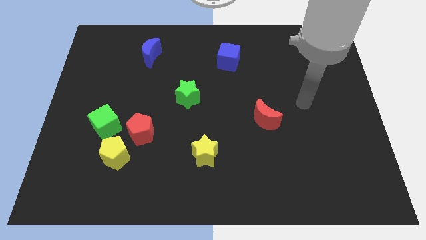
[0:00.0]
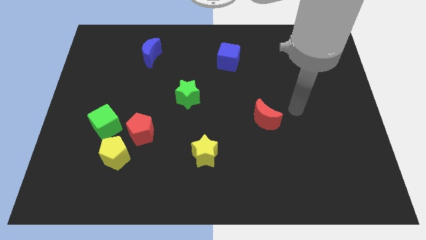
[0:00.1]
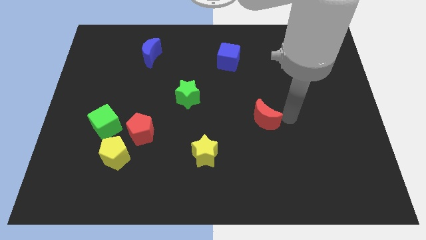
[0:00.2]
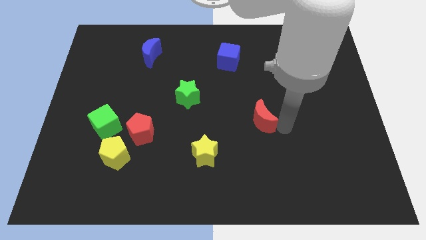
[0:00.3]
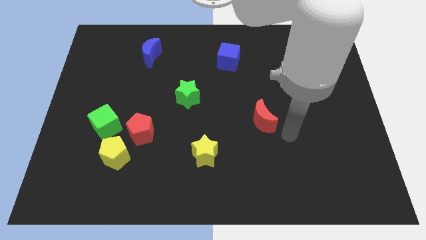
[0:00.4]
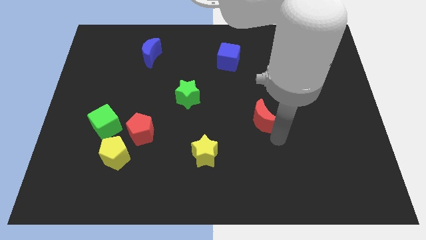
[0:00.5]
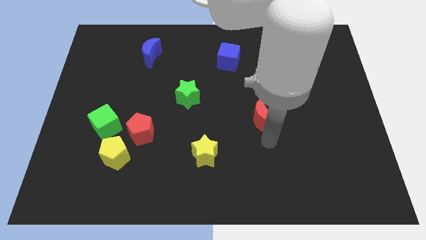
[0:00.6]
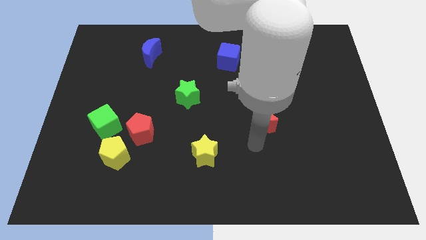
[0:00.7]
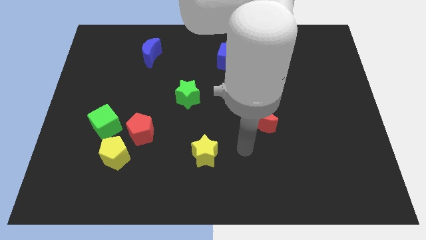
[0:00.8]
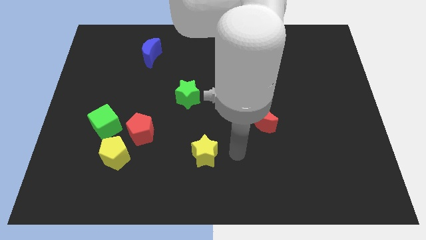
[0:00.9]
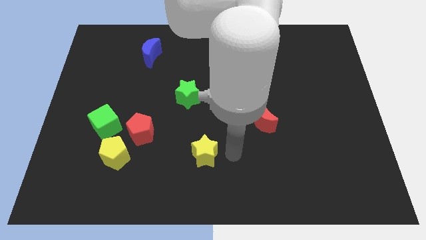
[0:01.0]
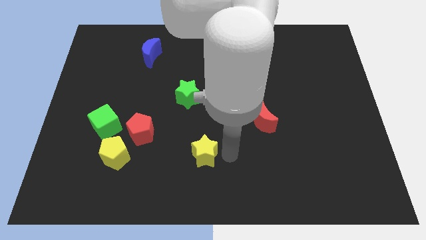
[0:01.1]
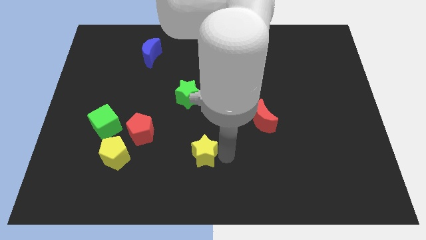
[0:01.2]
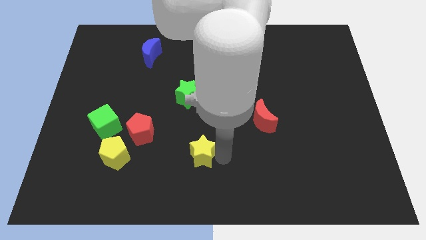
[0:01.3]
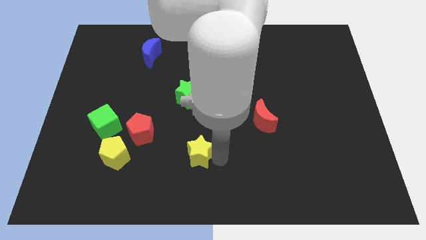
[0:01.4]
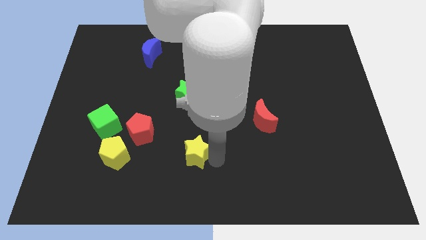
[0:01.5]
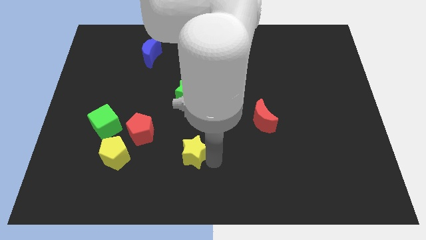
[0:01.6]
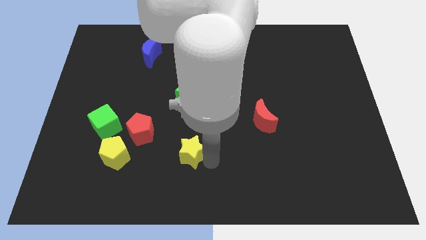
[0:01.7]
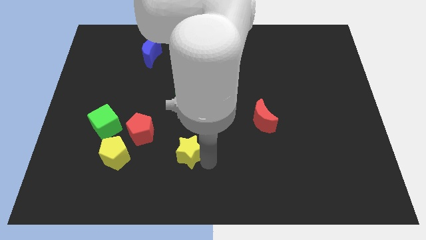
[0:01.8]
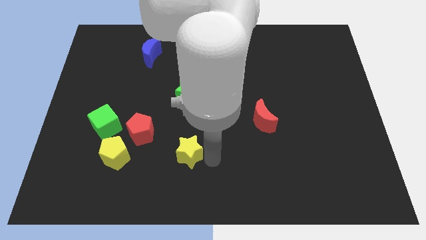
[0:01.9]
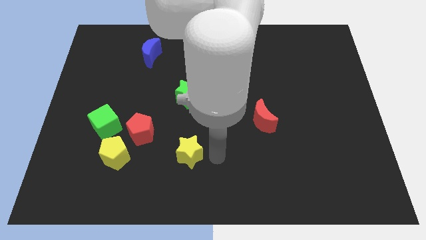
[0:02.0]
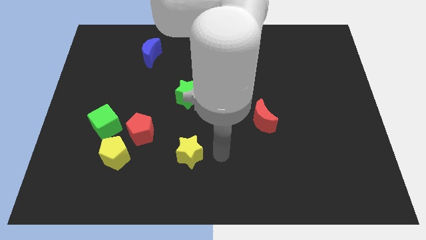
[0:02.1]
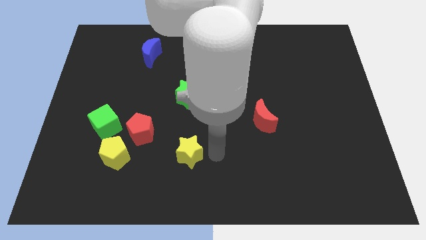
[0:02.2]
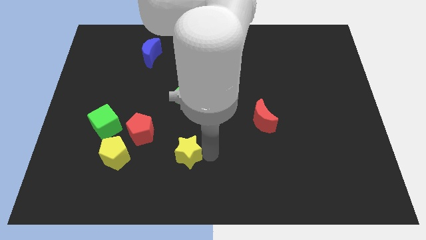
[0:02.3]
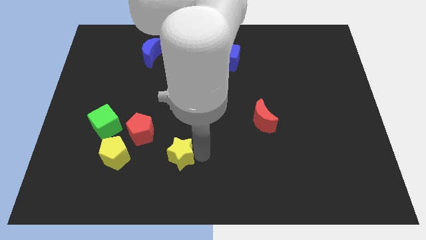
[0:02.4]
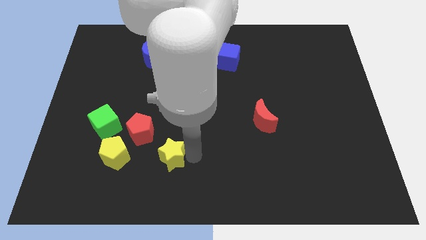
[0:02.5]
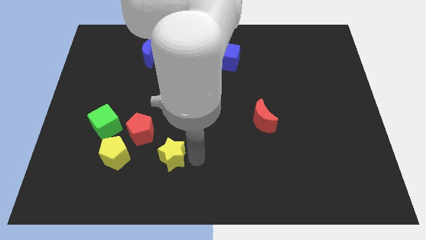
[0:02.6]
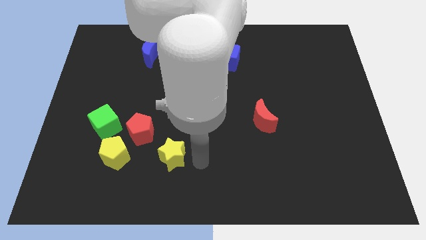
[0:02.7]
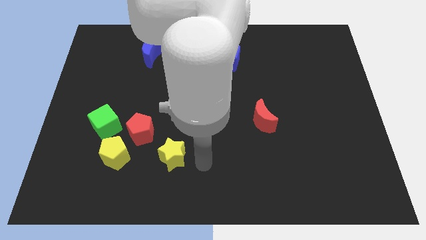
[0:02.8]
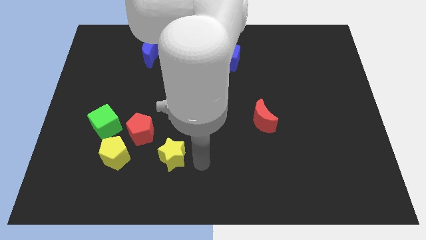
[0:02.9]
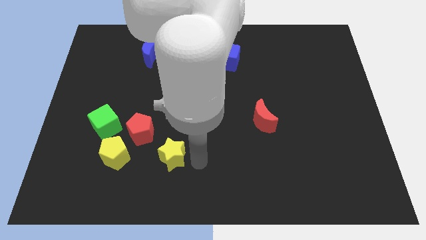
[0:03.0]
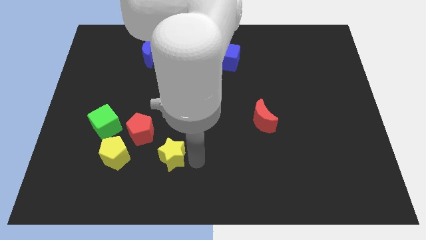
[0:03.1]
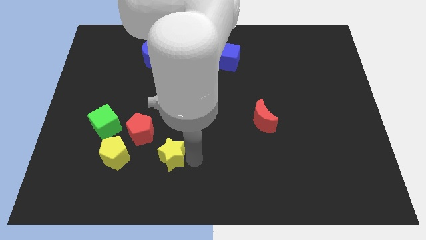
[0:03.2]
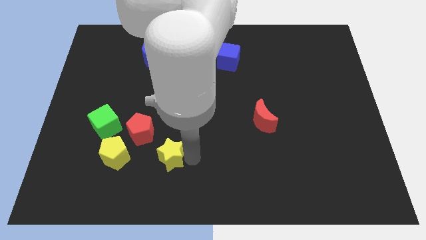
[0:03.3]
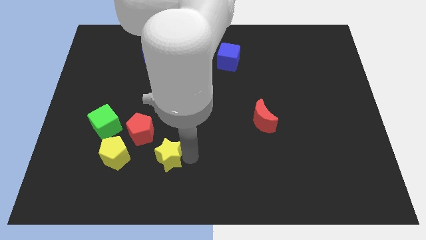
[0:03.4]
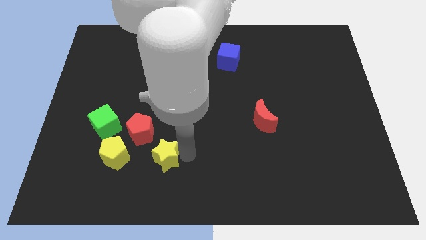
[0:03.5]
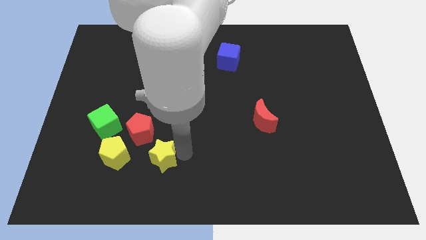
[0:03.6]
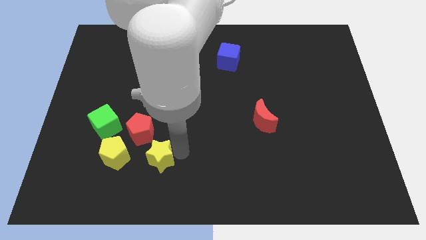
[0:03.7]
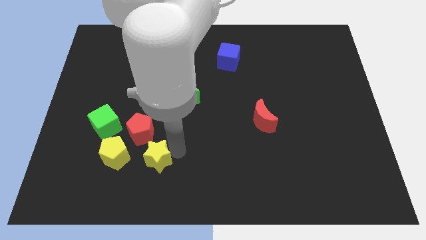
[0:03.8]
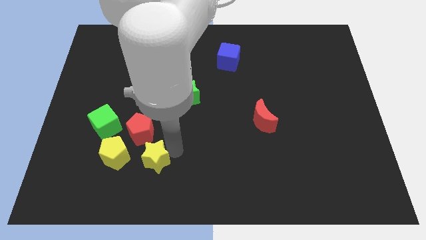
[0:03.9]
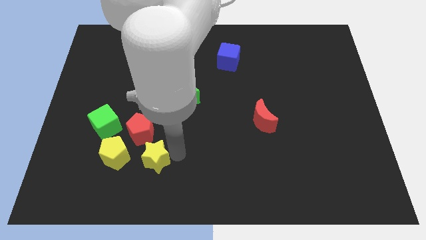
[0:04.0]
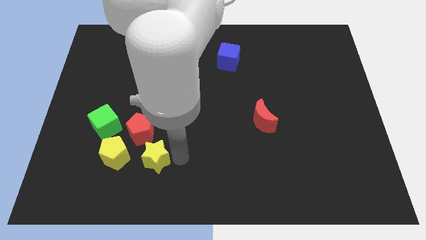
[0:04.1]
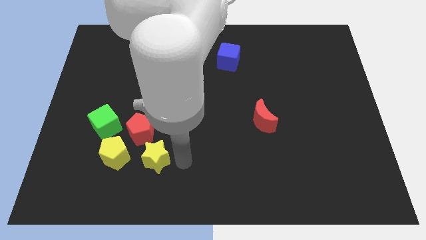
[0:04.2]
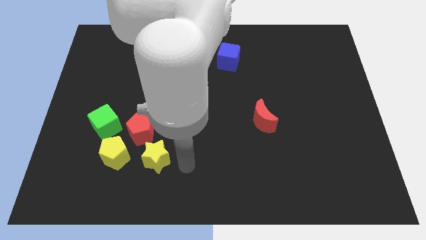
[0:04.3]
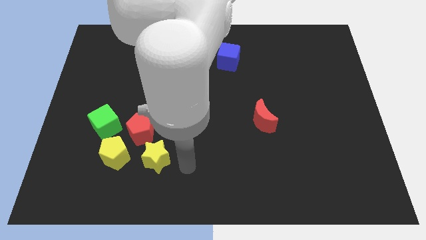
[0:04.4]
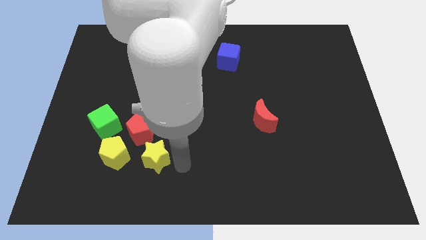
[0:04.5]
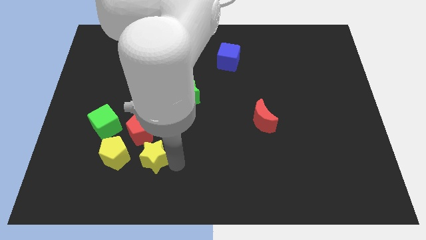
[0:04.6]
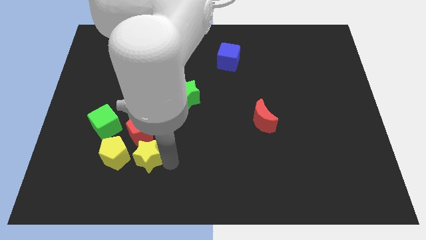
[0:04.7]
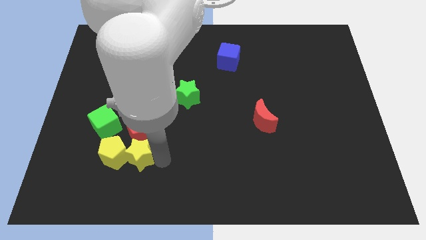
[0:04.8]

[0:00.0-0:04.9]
slide the yellow star close to the yellow pentagon

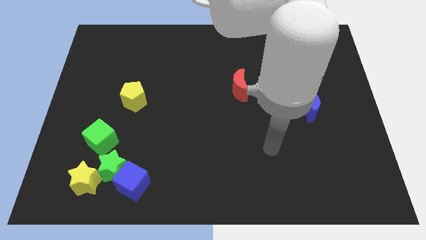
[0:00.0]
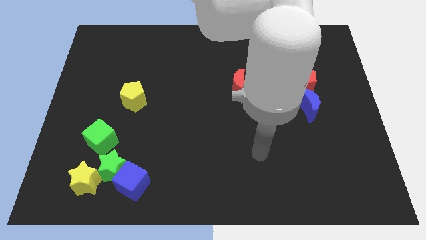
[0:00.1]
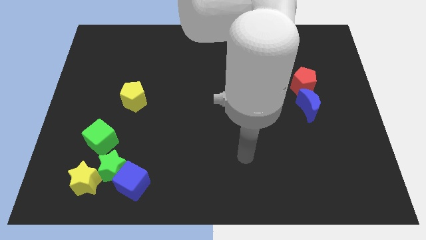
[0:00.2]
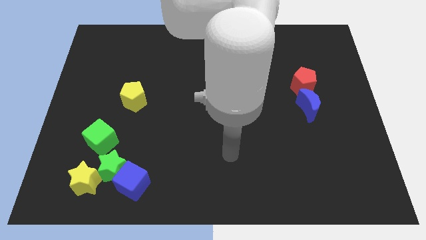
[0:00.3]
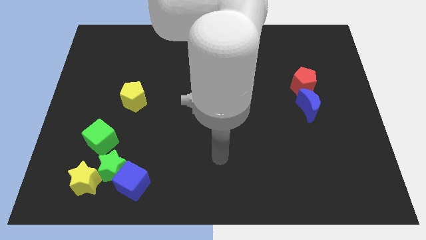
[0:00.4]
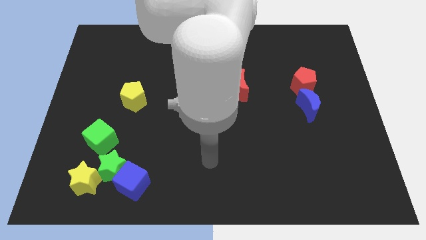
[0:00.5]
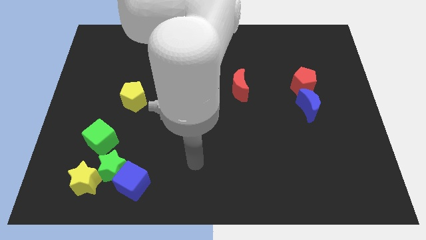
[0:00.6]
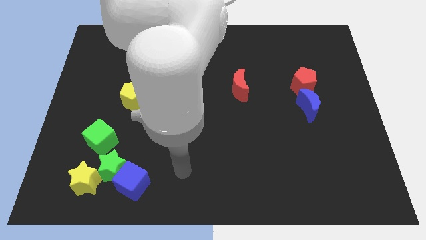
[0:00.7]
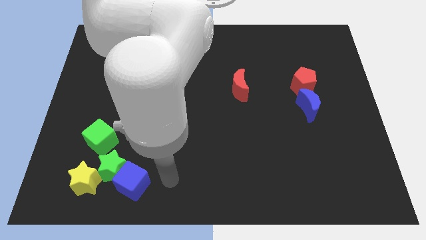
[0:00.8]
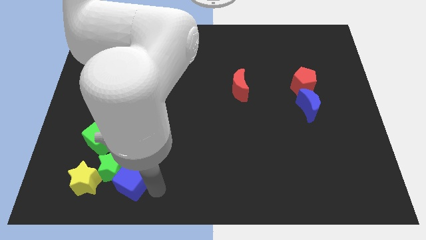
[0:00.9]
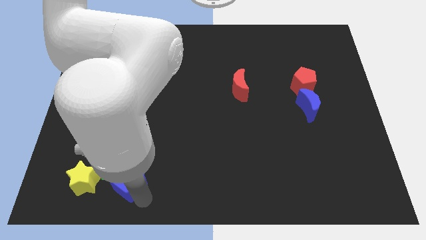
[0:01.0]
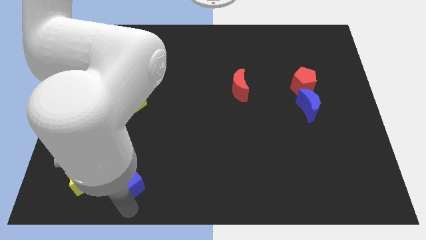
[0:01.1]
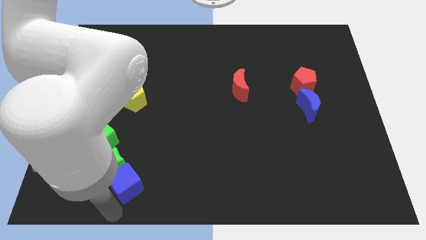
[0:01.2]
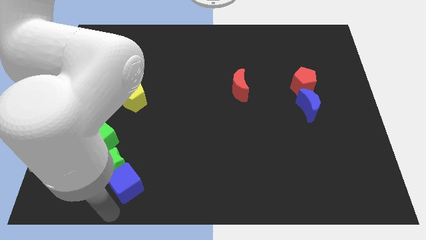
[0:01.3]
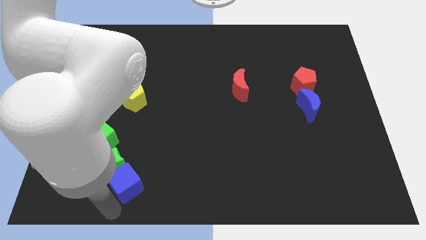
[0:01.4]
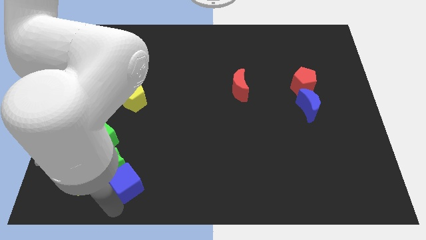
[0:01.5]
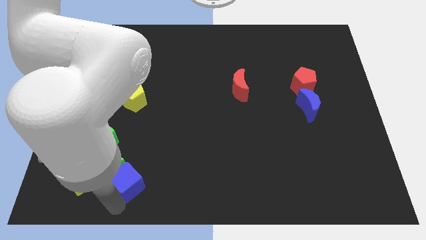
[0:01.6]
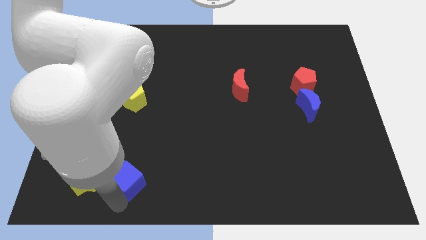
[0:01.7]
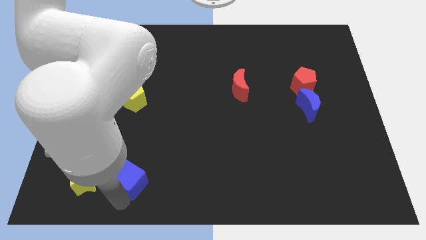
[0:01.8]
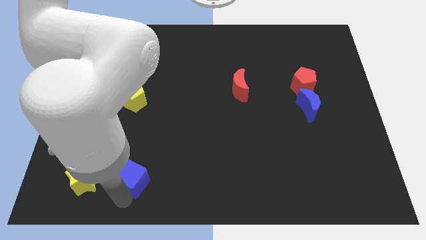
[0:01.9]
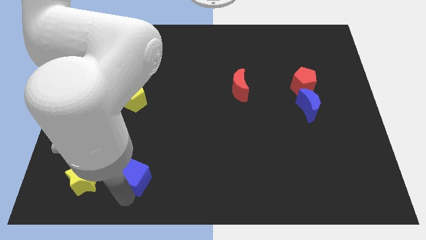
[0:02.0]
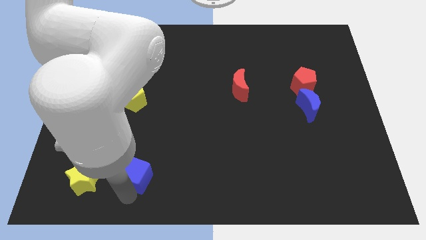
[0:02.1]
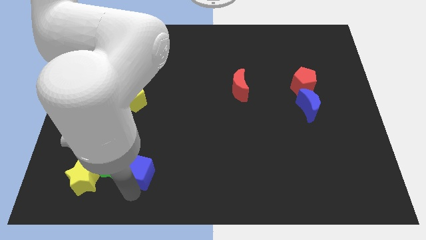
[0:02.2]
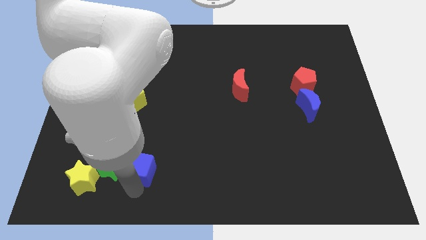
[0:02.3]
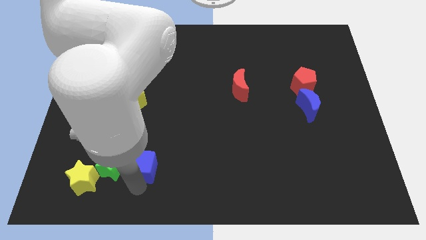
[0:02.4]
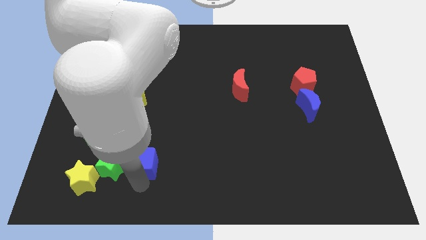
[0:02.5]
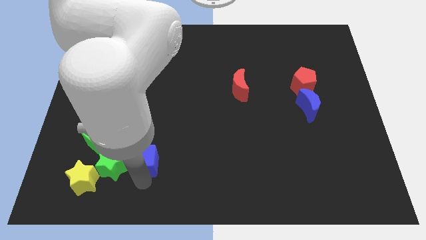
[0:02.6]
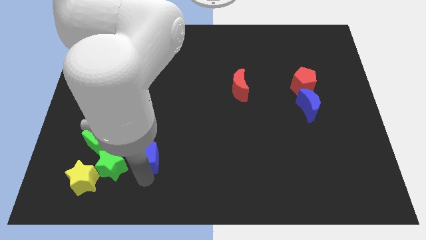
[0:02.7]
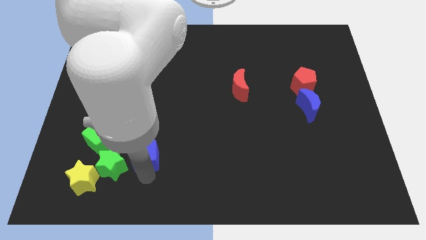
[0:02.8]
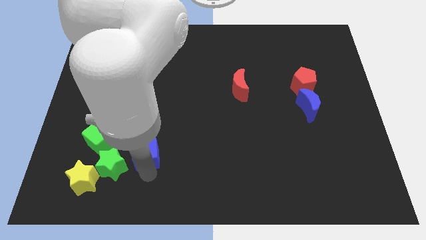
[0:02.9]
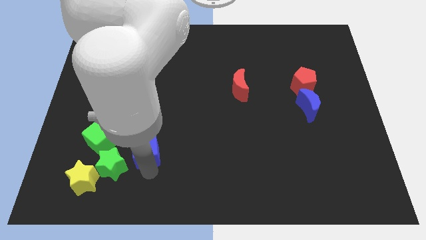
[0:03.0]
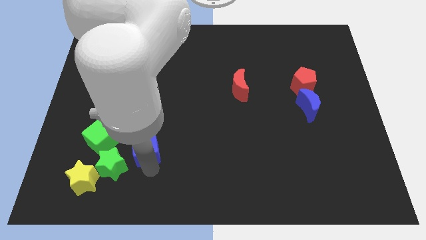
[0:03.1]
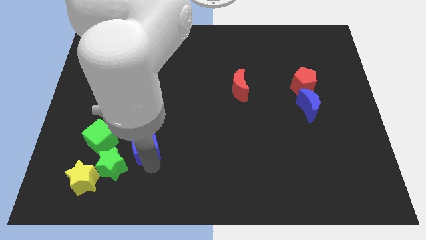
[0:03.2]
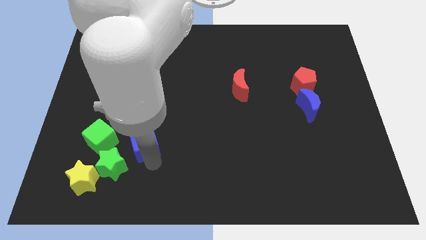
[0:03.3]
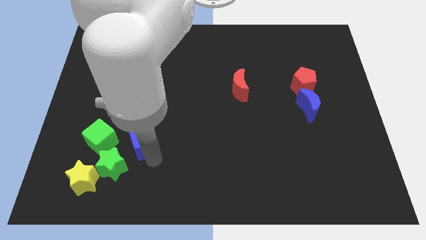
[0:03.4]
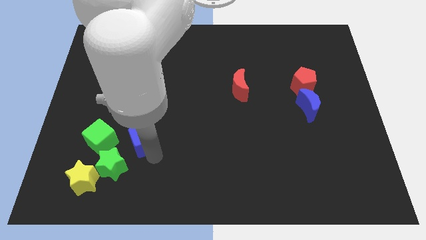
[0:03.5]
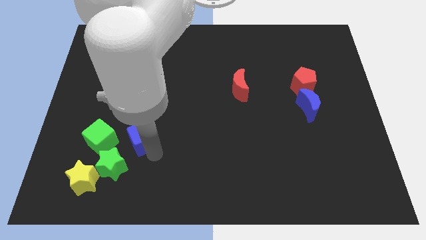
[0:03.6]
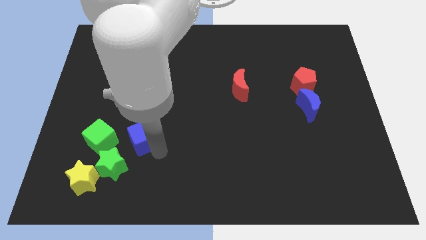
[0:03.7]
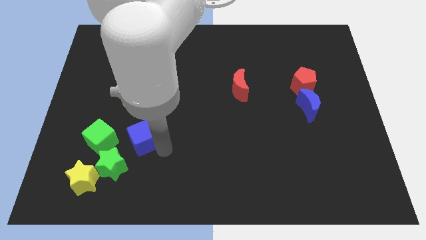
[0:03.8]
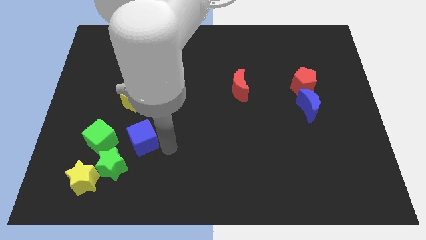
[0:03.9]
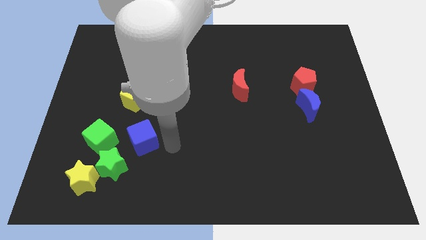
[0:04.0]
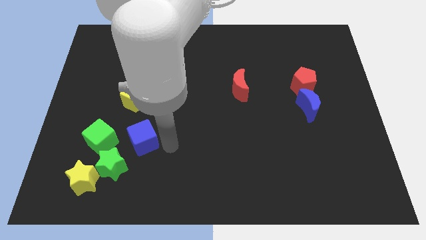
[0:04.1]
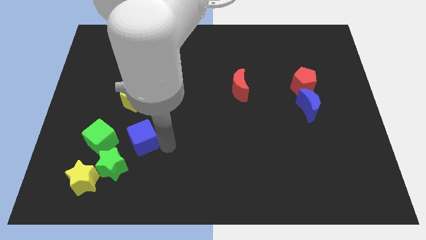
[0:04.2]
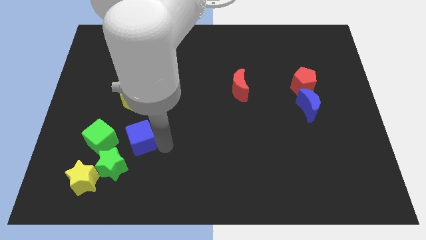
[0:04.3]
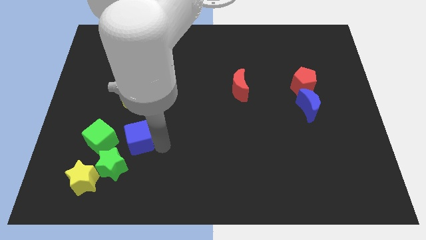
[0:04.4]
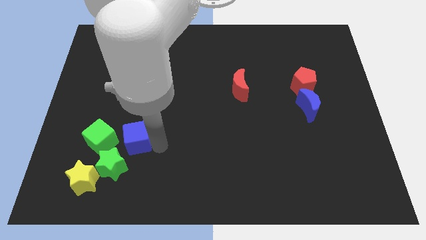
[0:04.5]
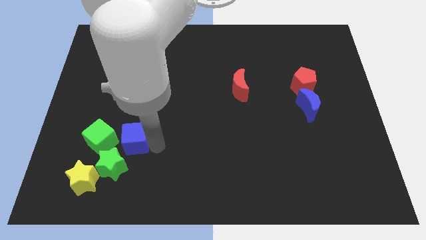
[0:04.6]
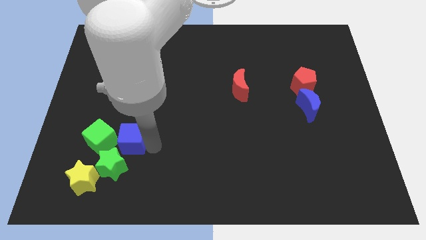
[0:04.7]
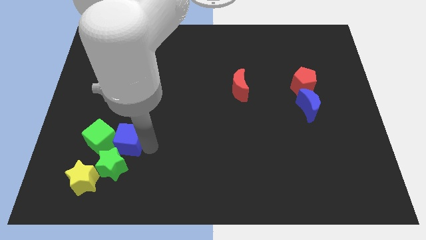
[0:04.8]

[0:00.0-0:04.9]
slide the blue cube to the green cube
